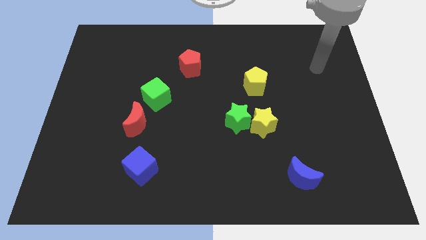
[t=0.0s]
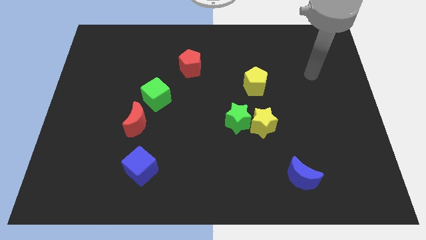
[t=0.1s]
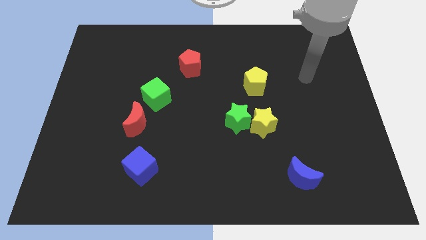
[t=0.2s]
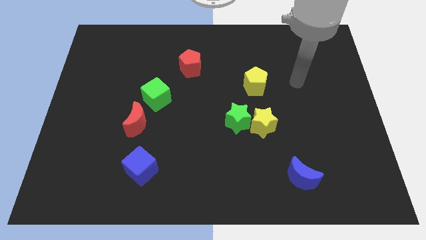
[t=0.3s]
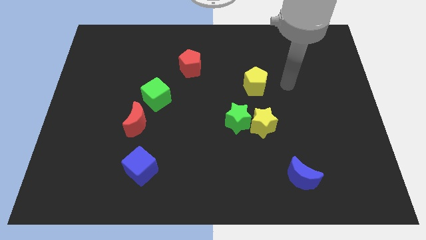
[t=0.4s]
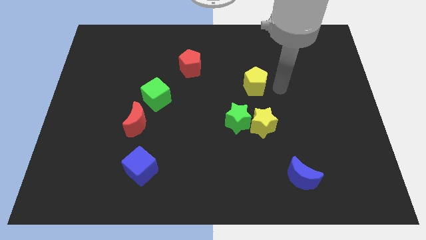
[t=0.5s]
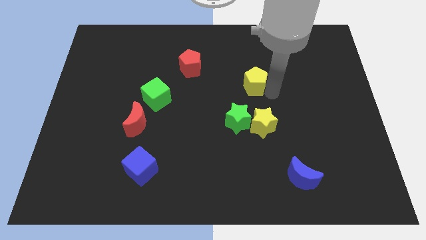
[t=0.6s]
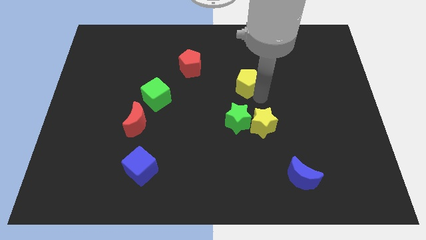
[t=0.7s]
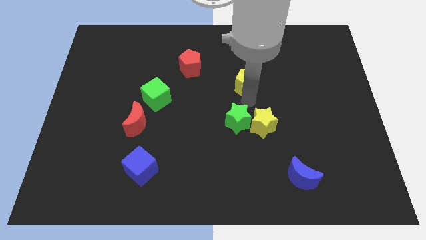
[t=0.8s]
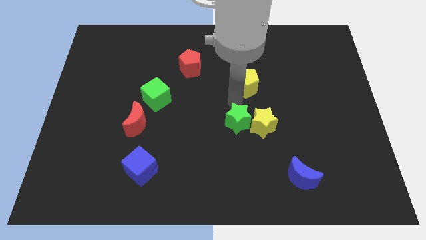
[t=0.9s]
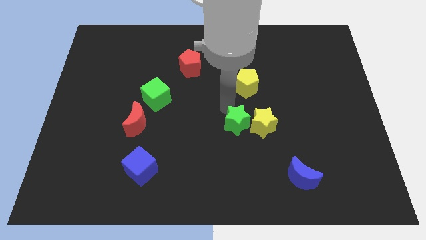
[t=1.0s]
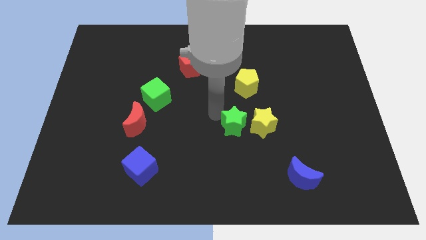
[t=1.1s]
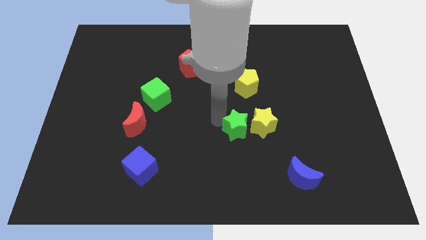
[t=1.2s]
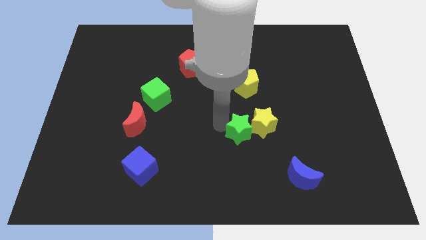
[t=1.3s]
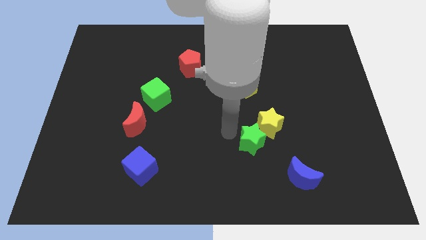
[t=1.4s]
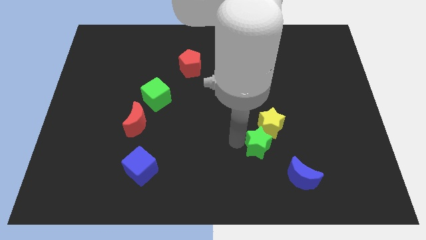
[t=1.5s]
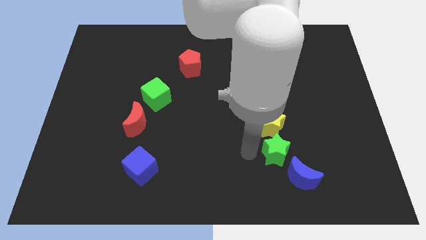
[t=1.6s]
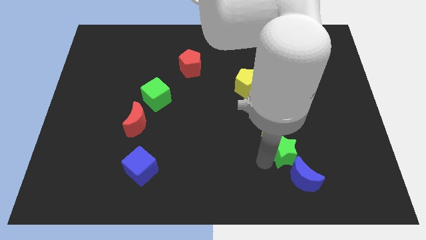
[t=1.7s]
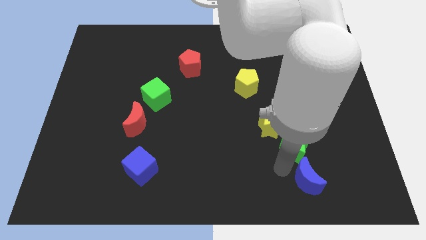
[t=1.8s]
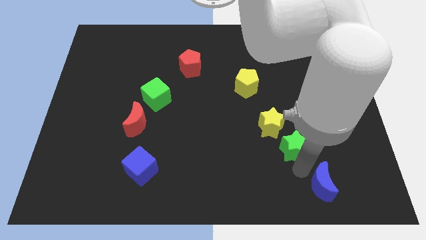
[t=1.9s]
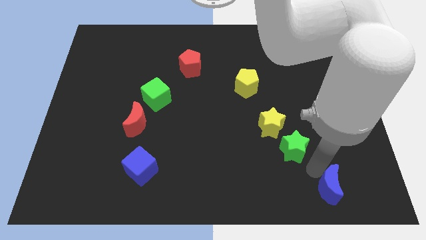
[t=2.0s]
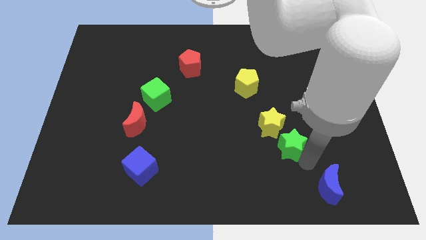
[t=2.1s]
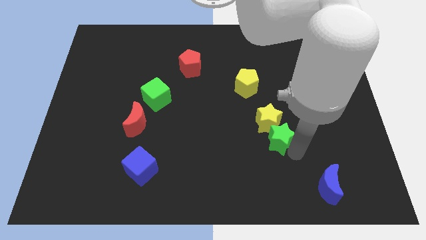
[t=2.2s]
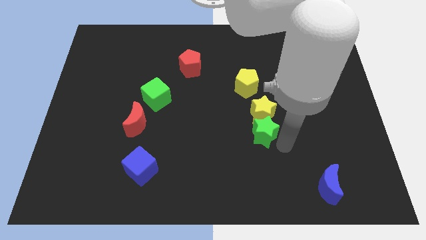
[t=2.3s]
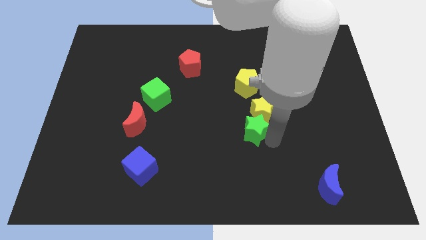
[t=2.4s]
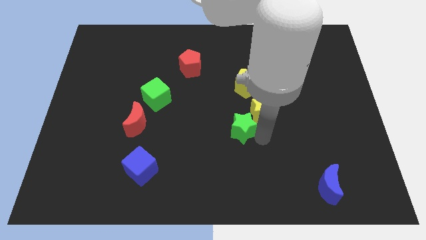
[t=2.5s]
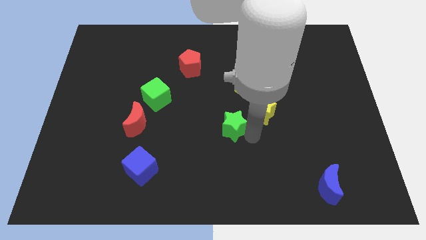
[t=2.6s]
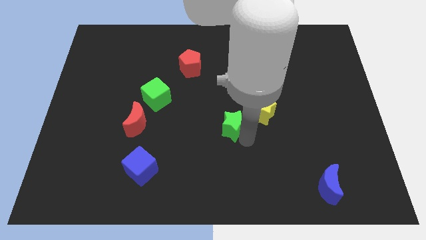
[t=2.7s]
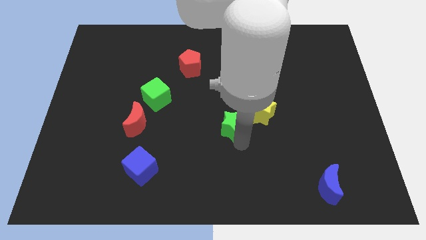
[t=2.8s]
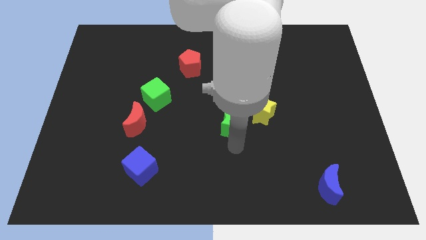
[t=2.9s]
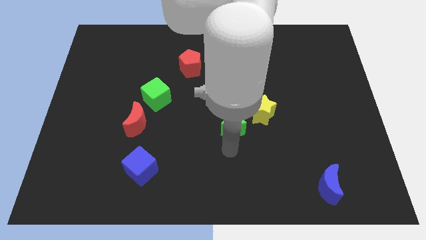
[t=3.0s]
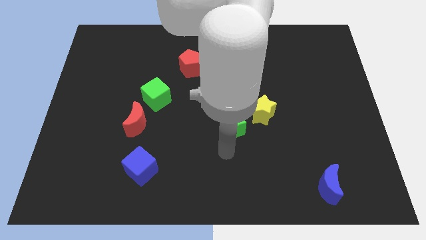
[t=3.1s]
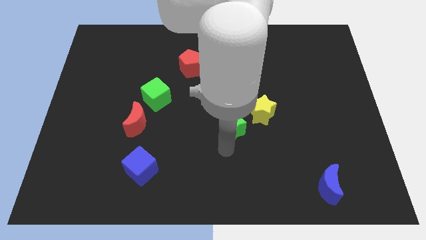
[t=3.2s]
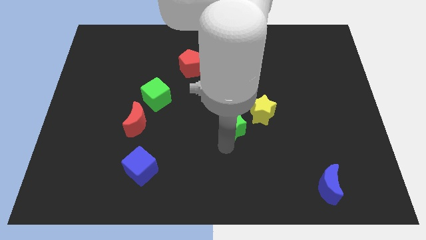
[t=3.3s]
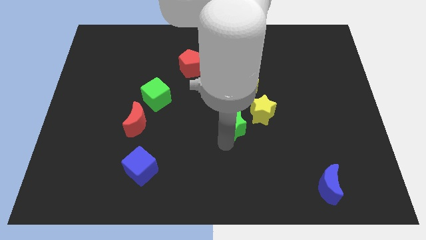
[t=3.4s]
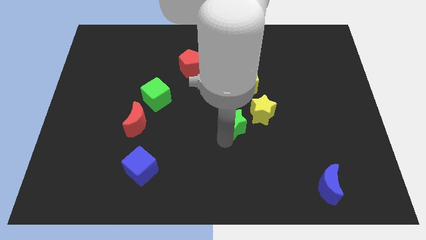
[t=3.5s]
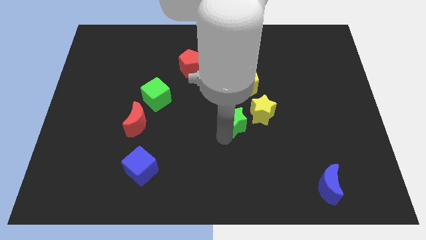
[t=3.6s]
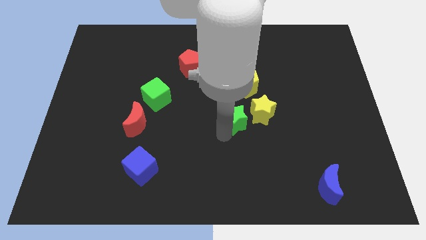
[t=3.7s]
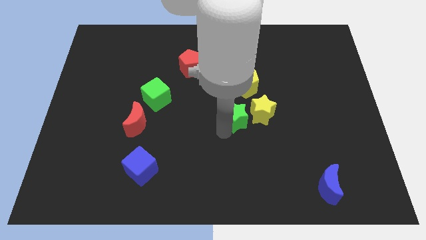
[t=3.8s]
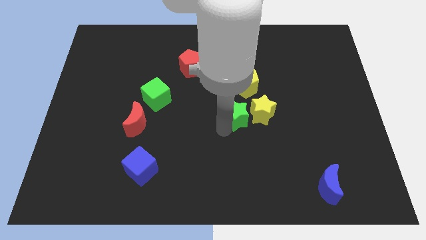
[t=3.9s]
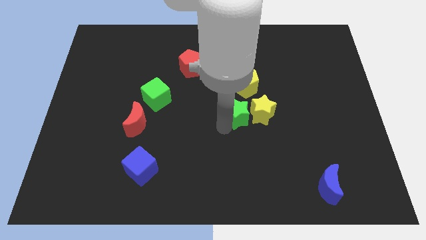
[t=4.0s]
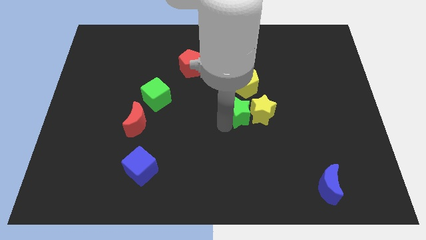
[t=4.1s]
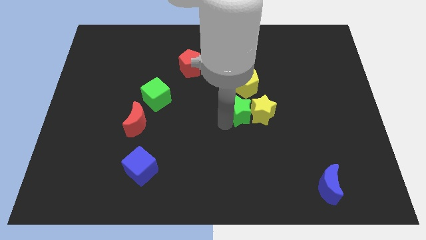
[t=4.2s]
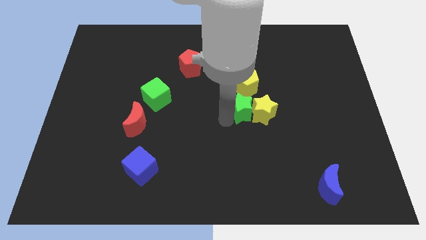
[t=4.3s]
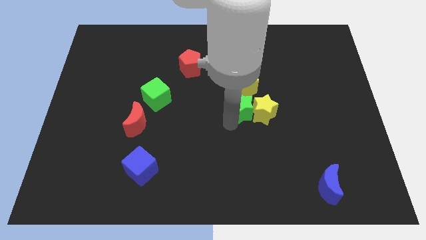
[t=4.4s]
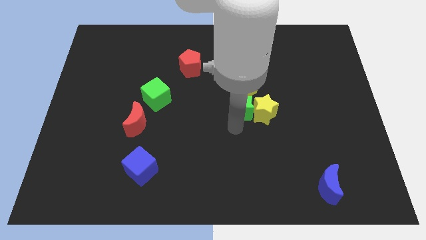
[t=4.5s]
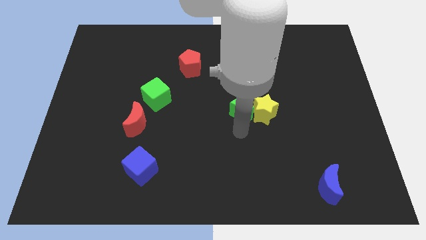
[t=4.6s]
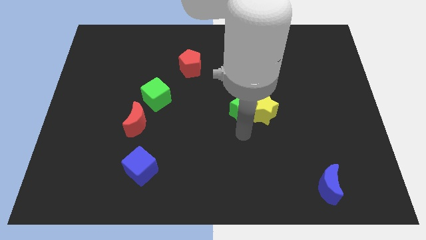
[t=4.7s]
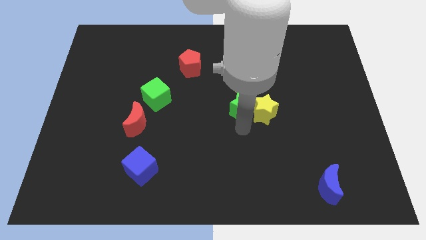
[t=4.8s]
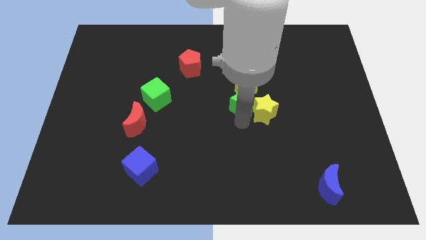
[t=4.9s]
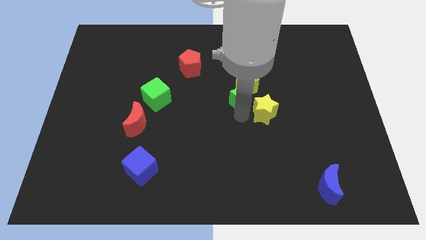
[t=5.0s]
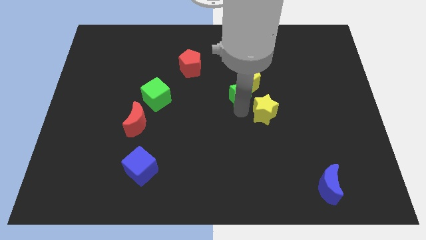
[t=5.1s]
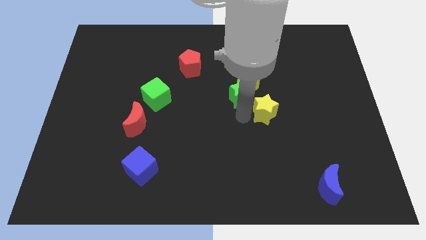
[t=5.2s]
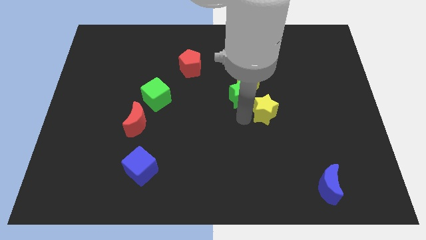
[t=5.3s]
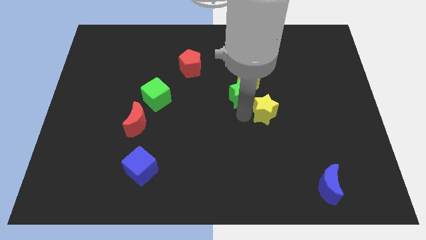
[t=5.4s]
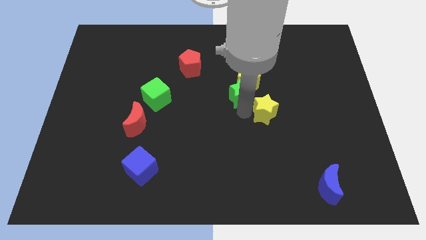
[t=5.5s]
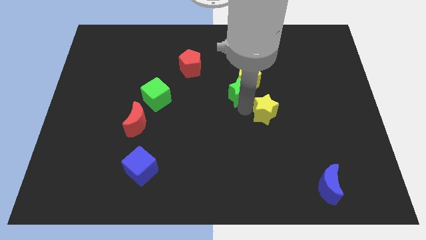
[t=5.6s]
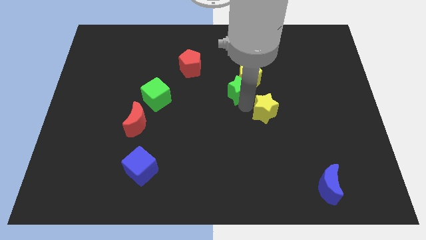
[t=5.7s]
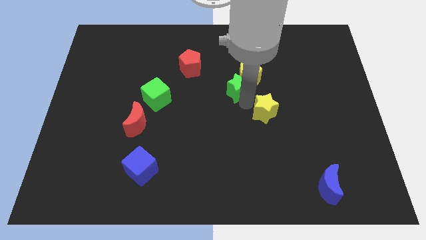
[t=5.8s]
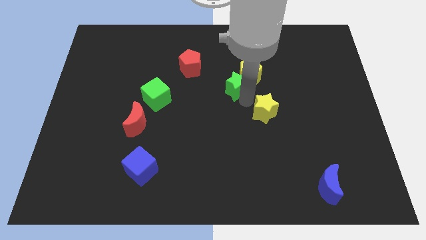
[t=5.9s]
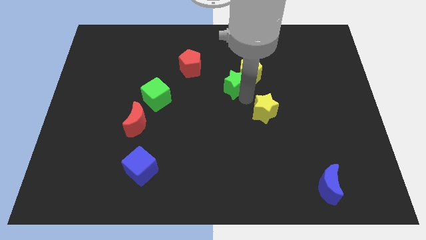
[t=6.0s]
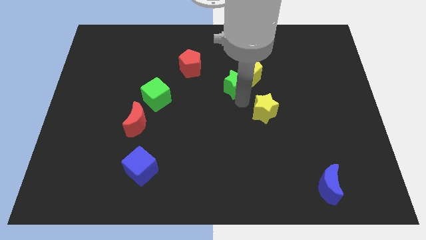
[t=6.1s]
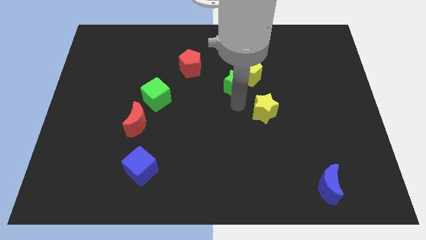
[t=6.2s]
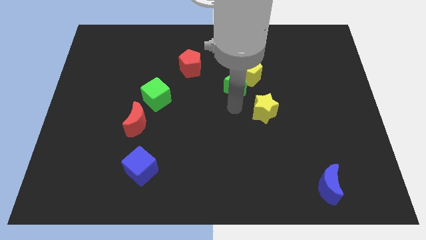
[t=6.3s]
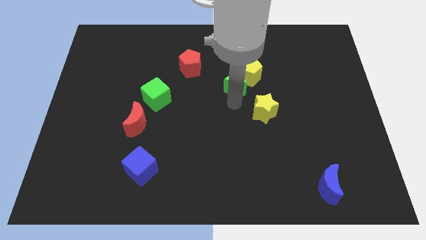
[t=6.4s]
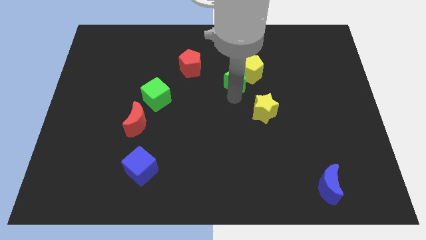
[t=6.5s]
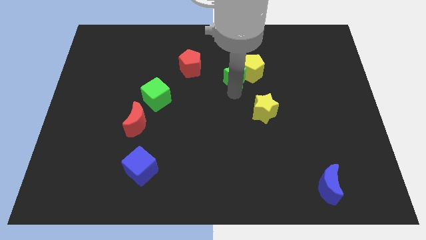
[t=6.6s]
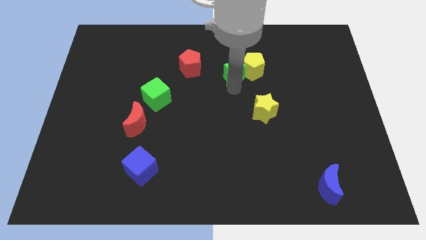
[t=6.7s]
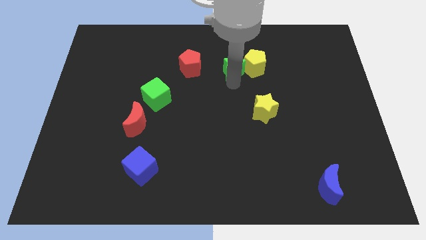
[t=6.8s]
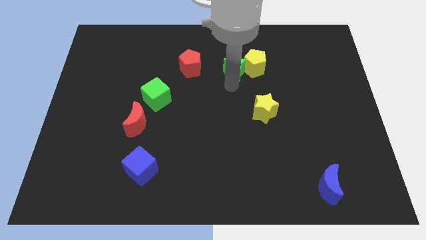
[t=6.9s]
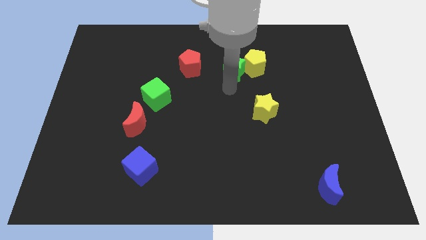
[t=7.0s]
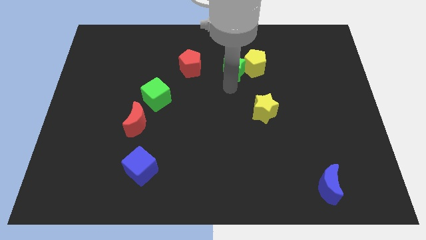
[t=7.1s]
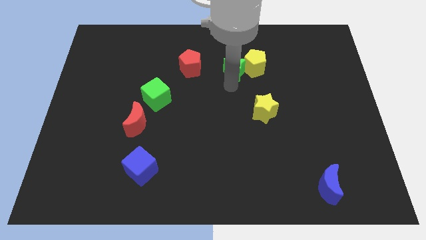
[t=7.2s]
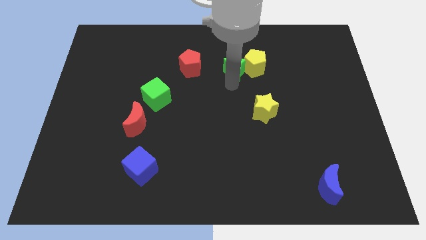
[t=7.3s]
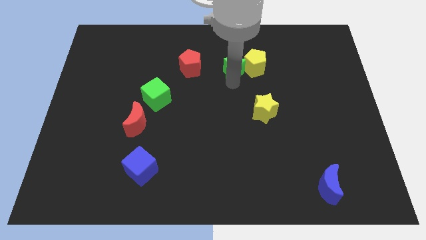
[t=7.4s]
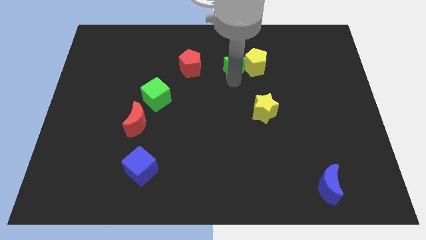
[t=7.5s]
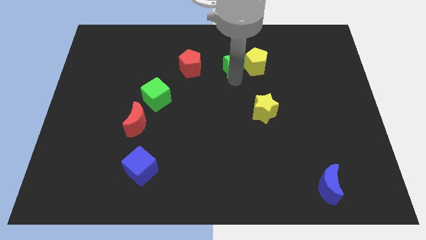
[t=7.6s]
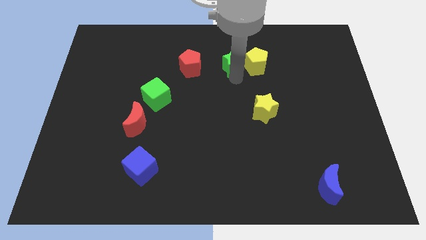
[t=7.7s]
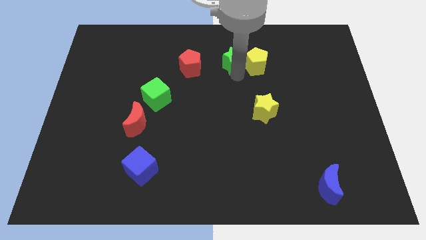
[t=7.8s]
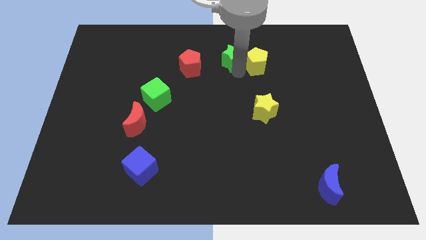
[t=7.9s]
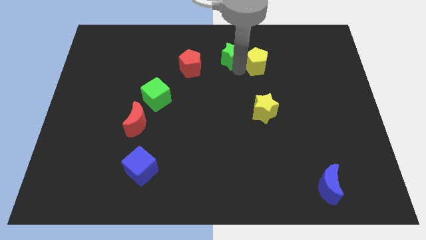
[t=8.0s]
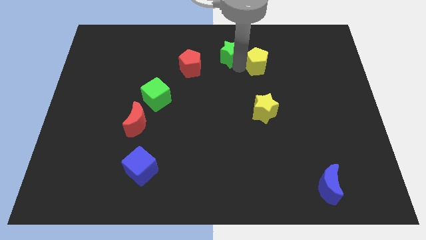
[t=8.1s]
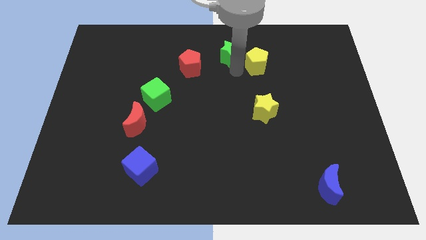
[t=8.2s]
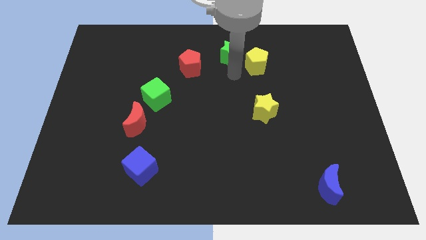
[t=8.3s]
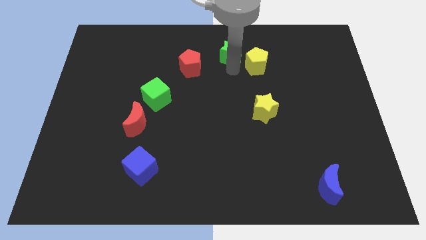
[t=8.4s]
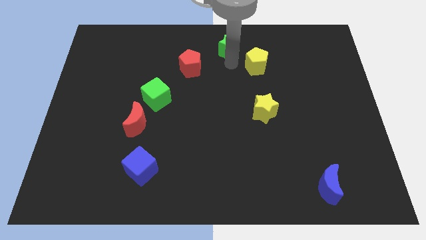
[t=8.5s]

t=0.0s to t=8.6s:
move the green star to the towards your base
